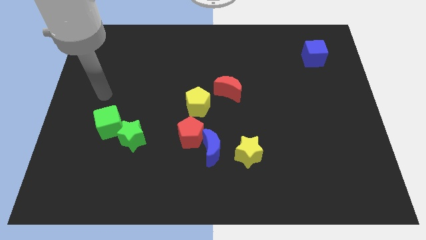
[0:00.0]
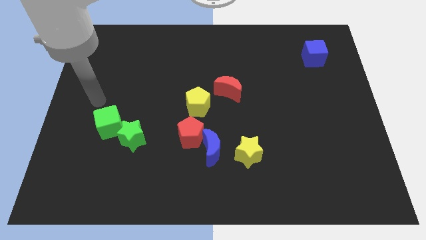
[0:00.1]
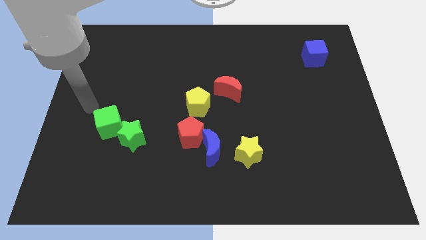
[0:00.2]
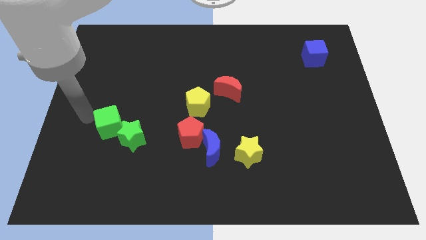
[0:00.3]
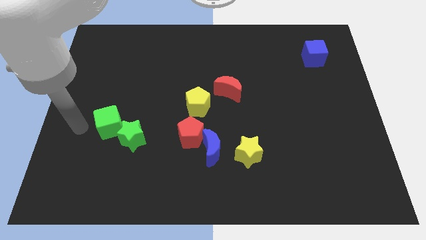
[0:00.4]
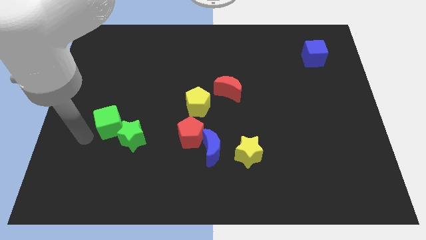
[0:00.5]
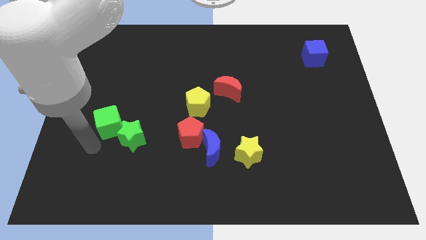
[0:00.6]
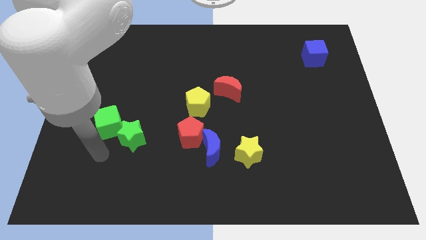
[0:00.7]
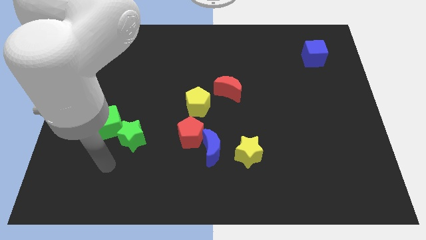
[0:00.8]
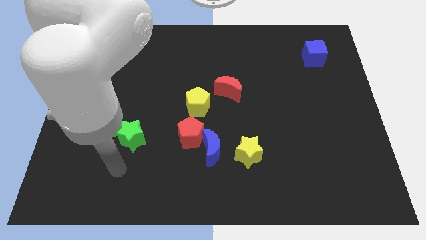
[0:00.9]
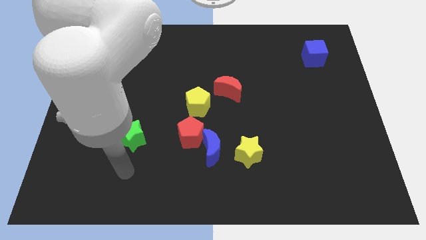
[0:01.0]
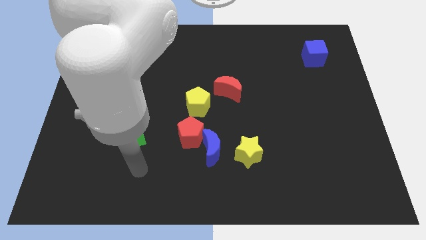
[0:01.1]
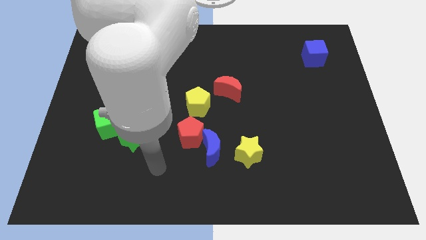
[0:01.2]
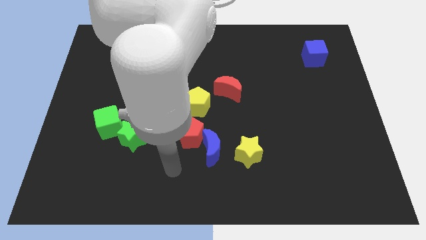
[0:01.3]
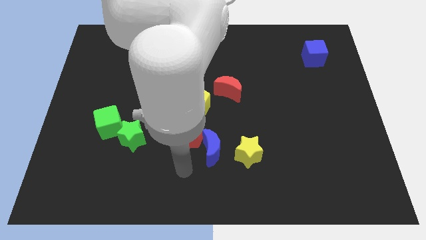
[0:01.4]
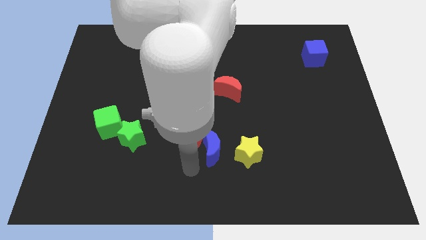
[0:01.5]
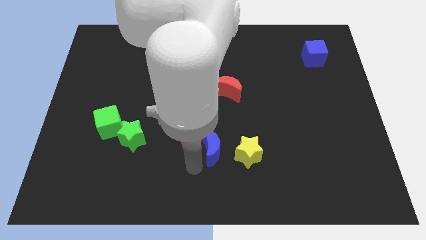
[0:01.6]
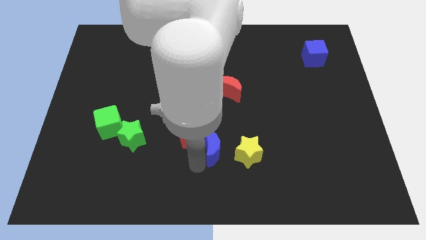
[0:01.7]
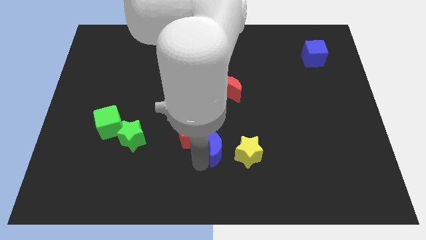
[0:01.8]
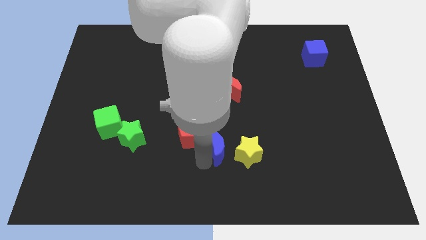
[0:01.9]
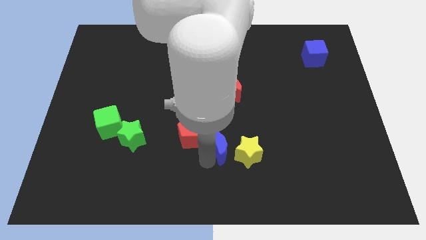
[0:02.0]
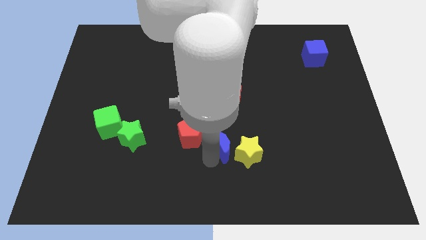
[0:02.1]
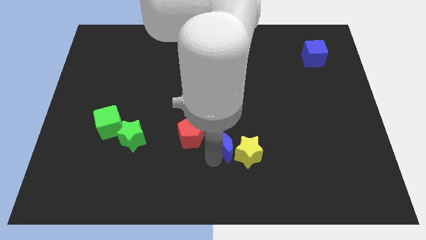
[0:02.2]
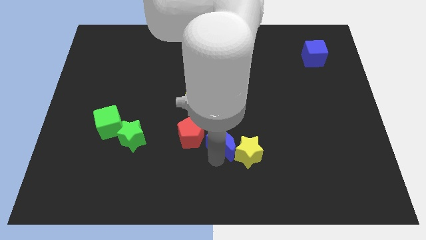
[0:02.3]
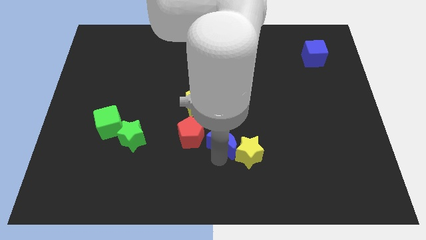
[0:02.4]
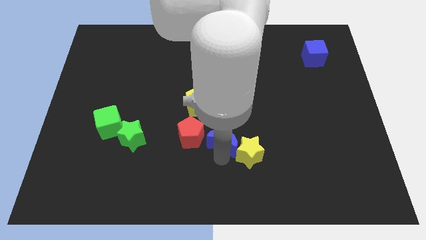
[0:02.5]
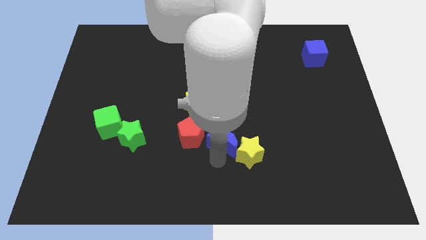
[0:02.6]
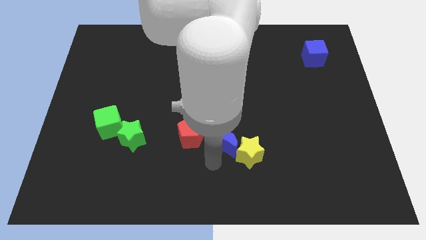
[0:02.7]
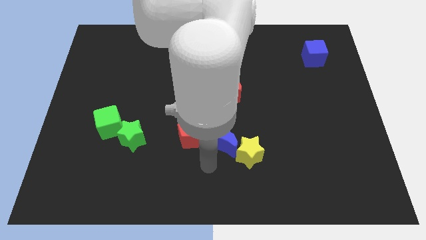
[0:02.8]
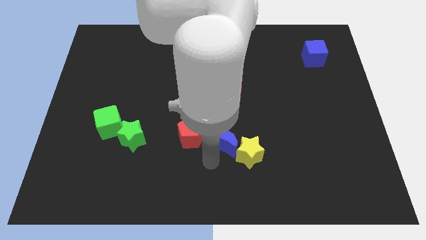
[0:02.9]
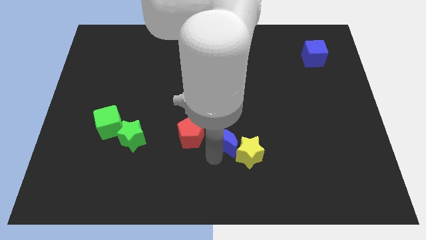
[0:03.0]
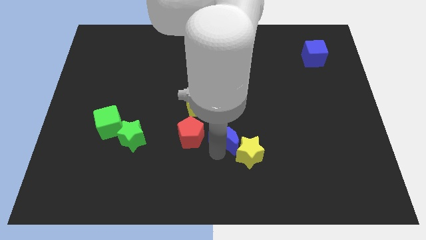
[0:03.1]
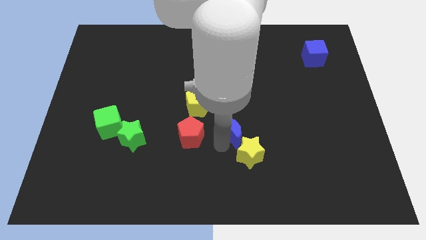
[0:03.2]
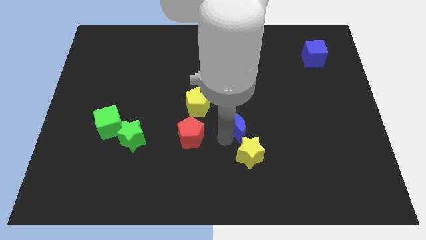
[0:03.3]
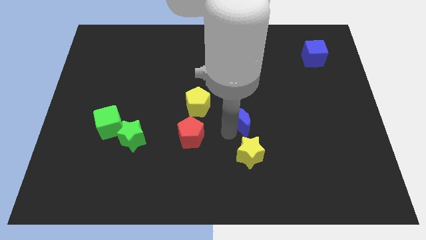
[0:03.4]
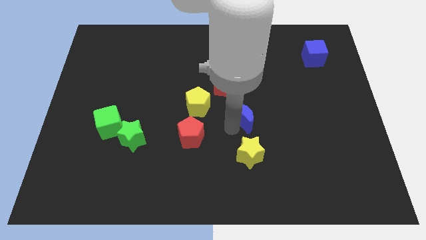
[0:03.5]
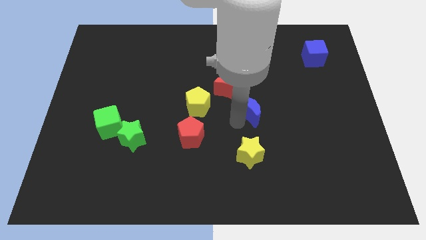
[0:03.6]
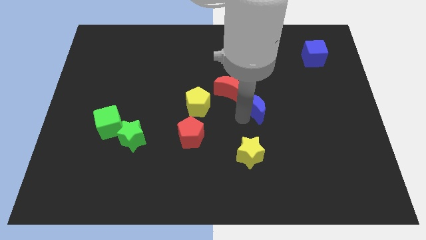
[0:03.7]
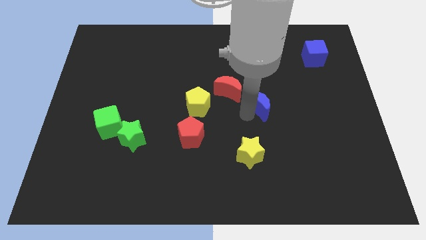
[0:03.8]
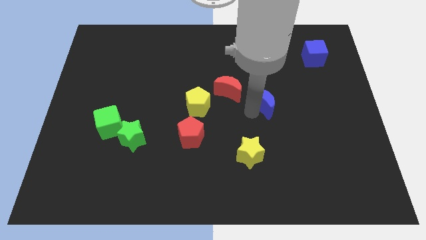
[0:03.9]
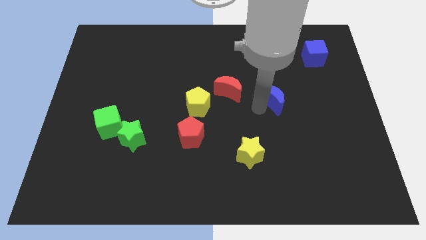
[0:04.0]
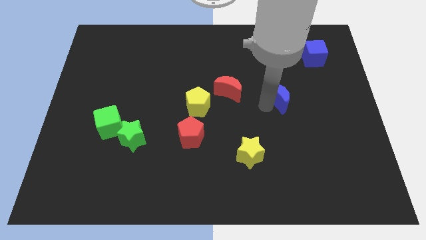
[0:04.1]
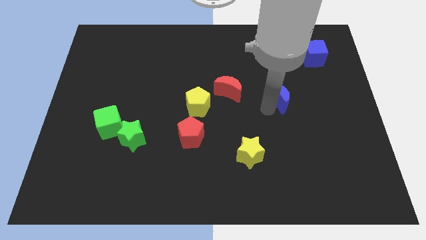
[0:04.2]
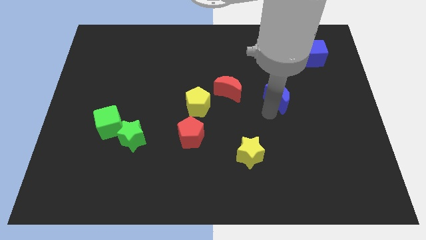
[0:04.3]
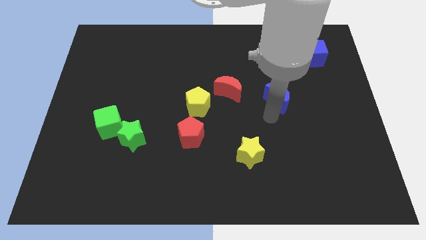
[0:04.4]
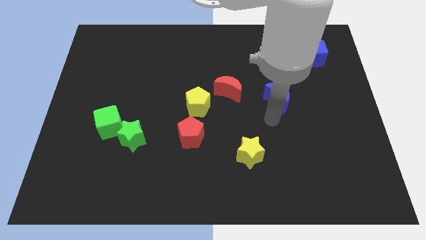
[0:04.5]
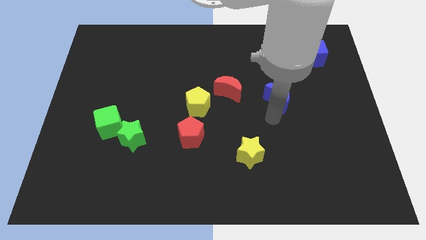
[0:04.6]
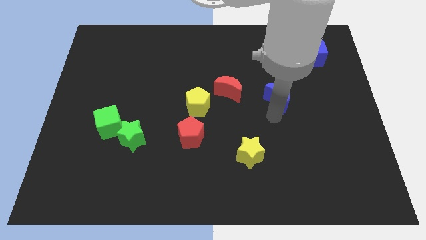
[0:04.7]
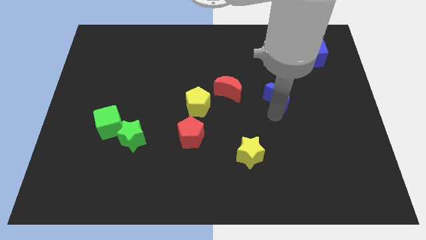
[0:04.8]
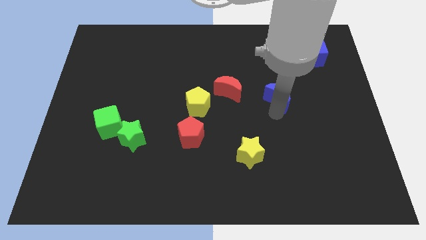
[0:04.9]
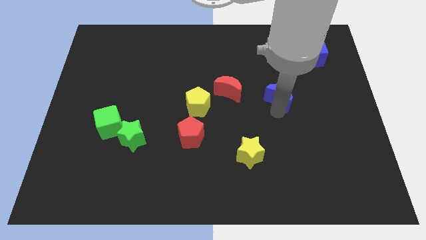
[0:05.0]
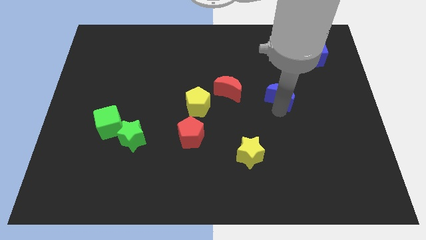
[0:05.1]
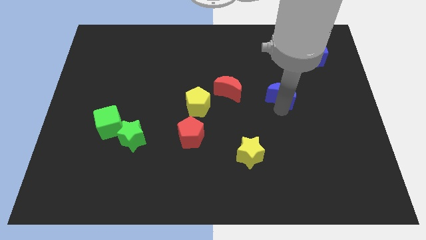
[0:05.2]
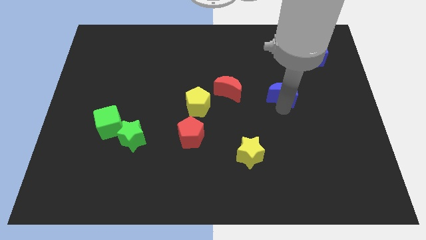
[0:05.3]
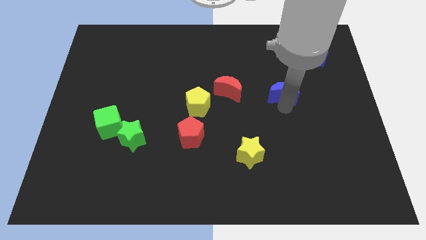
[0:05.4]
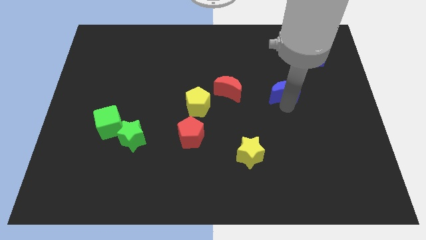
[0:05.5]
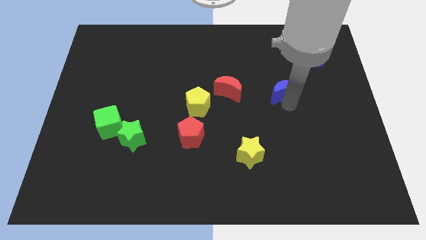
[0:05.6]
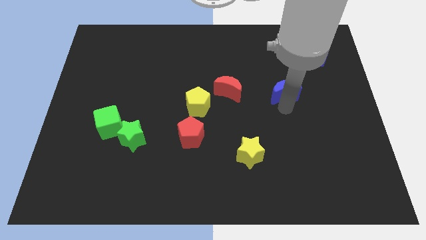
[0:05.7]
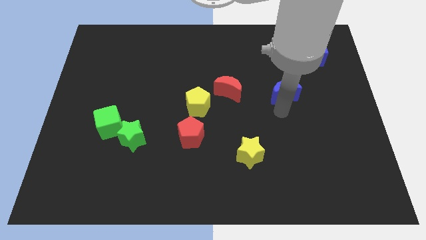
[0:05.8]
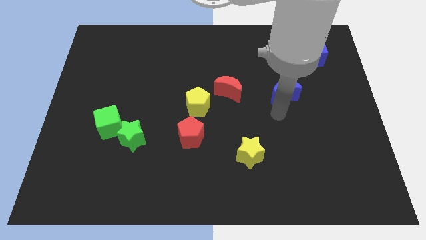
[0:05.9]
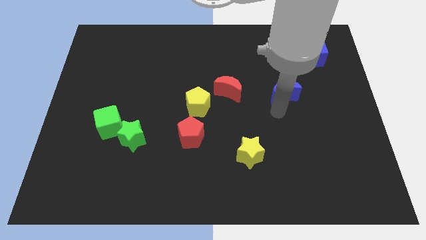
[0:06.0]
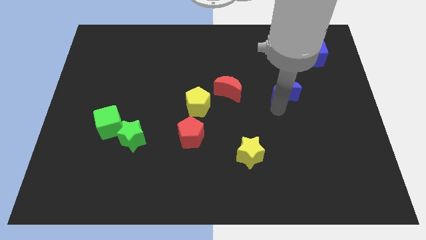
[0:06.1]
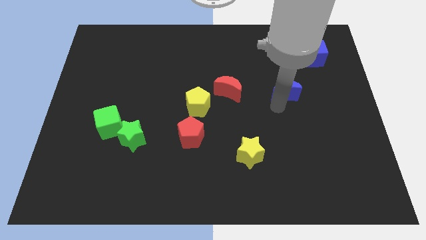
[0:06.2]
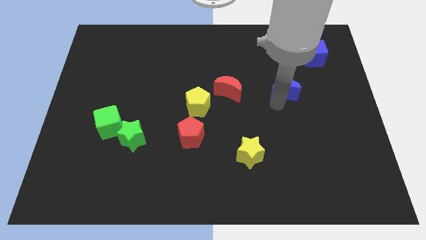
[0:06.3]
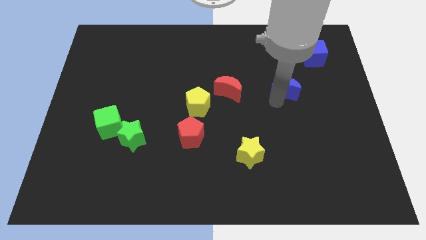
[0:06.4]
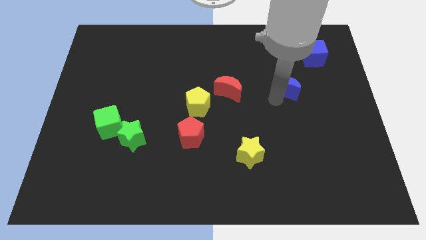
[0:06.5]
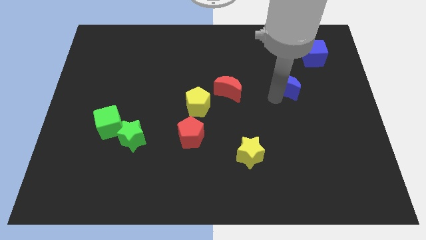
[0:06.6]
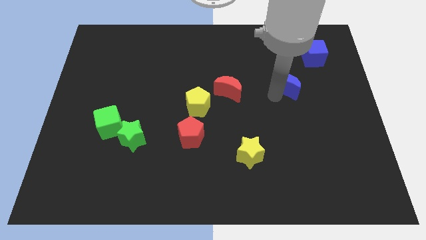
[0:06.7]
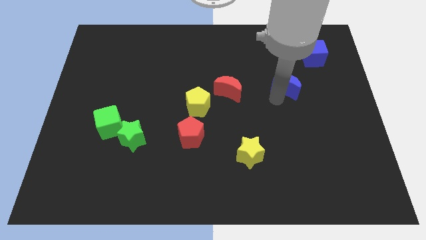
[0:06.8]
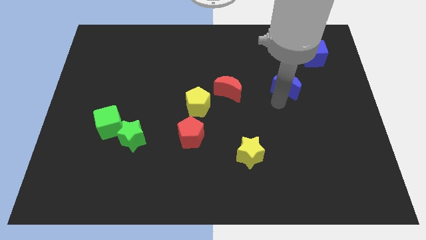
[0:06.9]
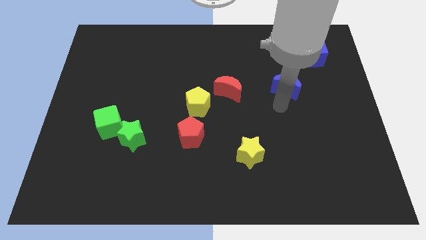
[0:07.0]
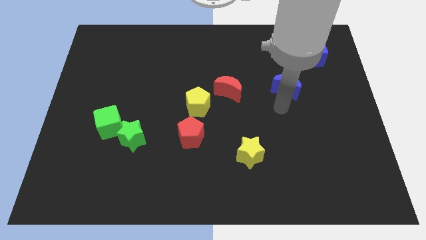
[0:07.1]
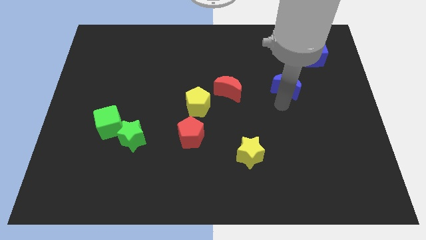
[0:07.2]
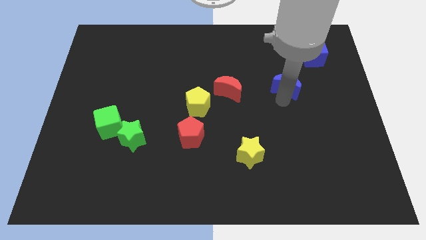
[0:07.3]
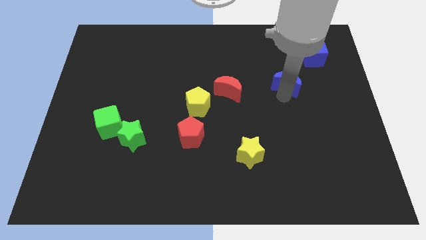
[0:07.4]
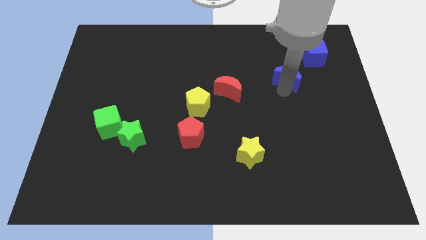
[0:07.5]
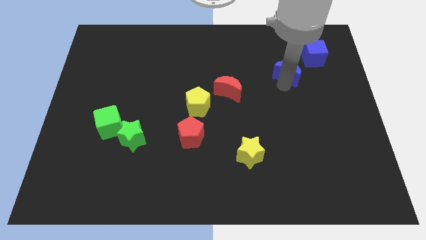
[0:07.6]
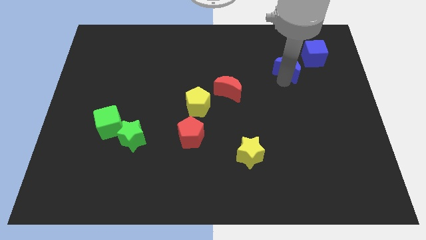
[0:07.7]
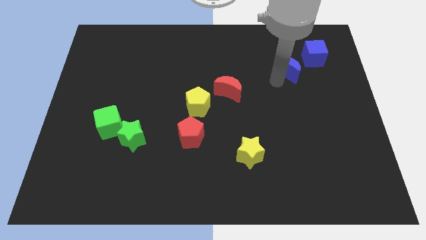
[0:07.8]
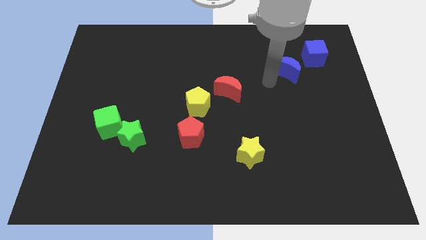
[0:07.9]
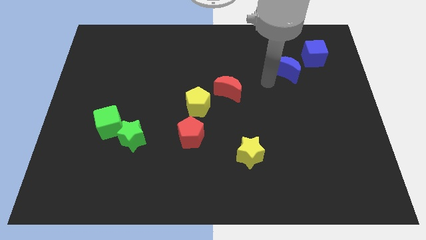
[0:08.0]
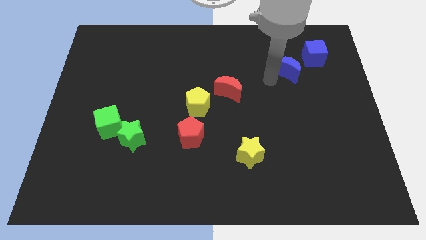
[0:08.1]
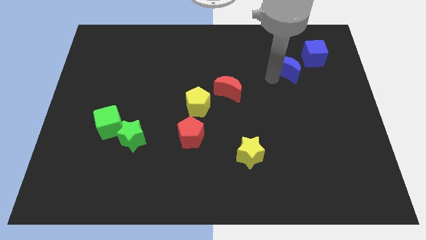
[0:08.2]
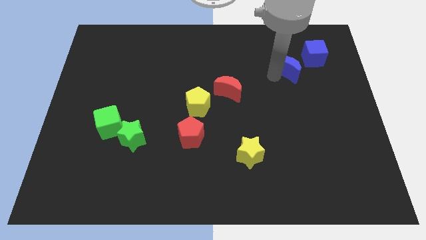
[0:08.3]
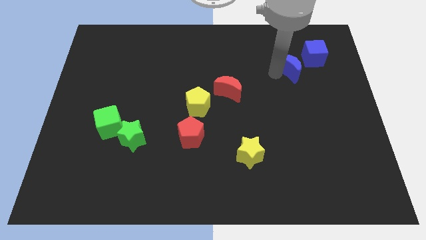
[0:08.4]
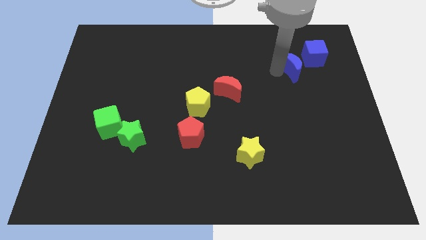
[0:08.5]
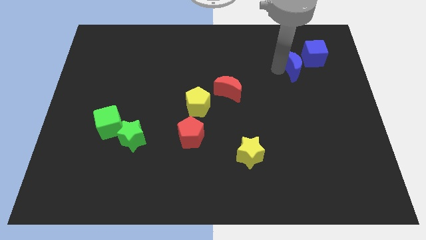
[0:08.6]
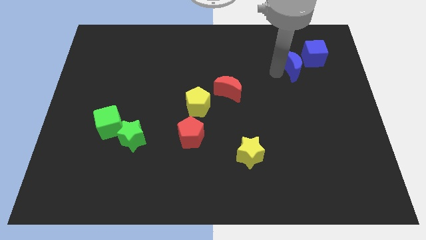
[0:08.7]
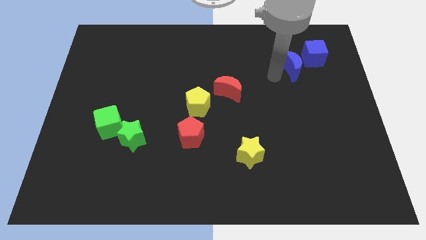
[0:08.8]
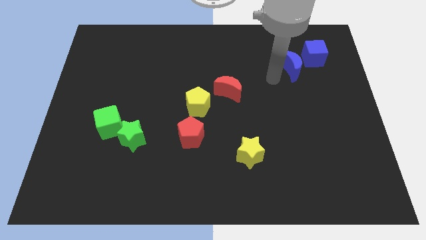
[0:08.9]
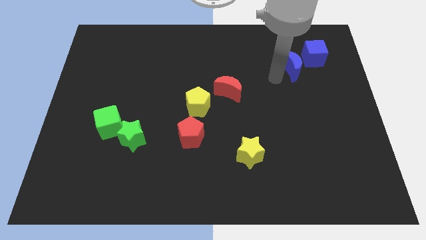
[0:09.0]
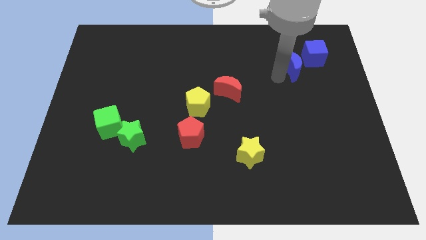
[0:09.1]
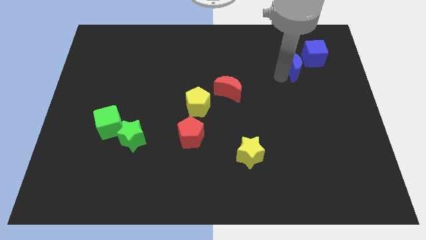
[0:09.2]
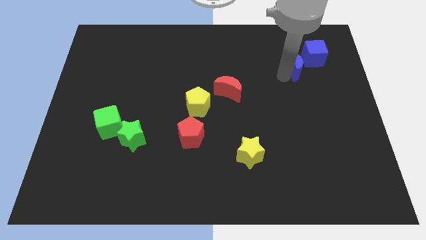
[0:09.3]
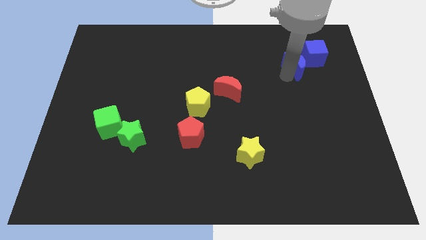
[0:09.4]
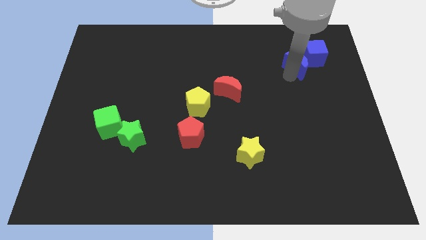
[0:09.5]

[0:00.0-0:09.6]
slide the blue moon next to the blue cube
